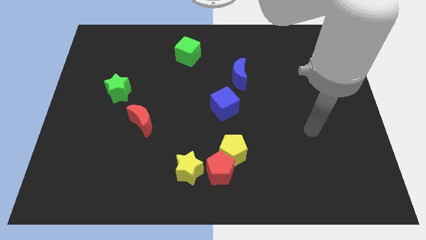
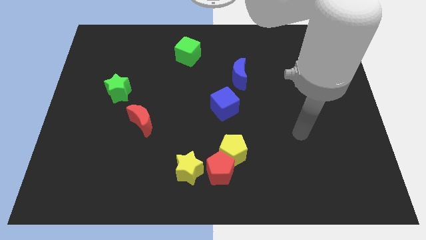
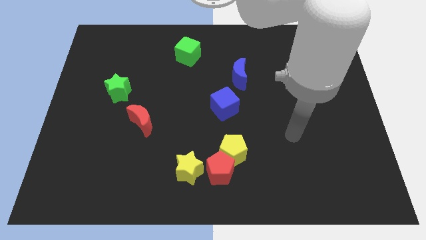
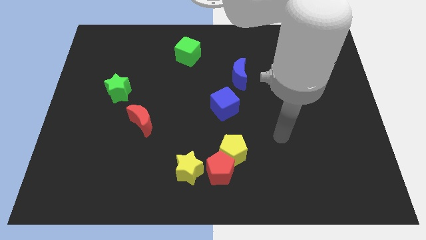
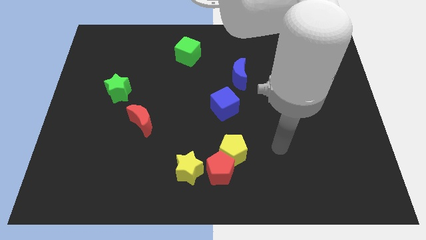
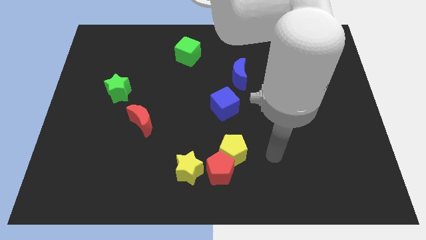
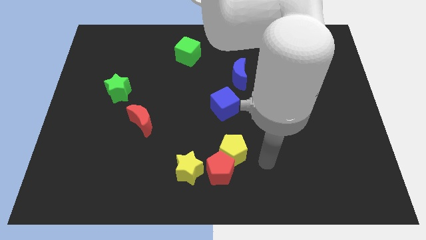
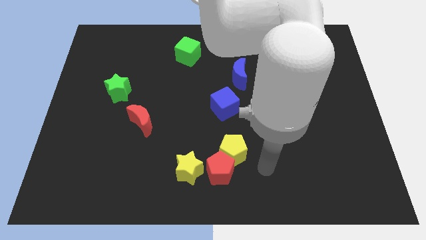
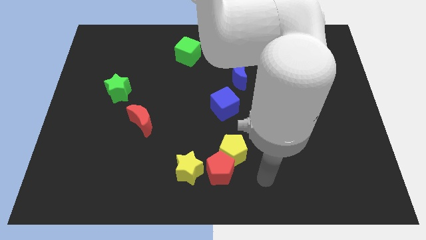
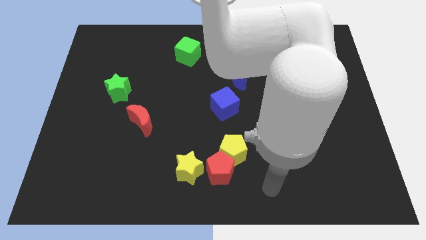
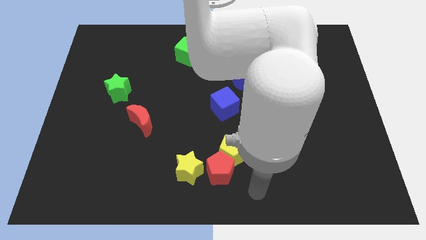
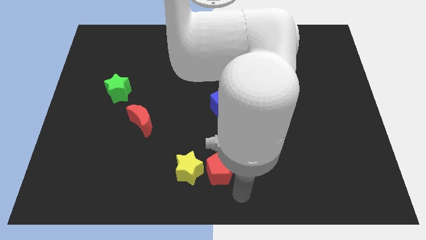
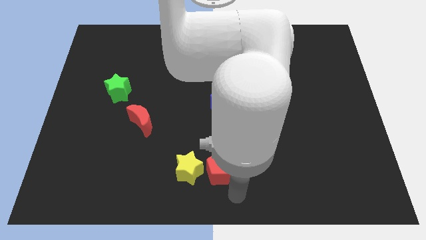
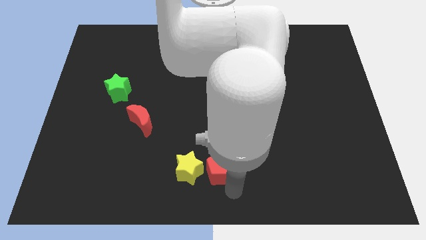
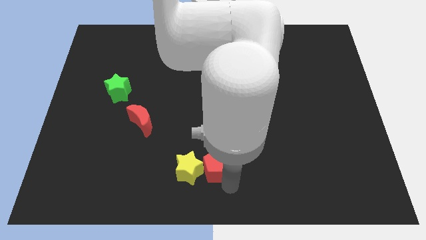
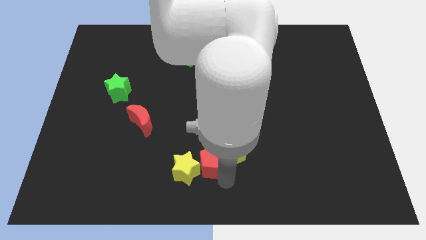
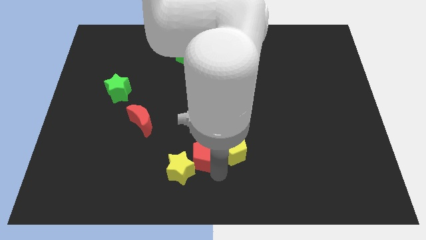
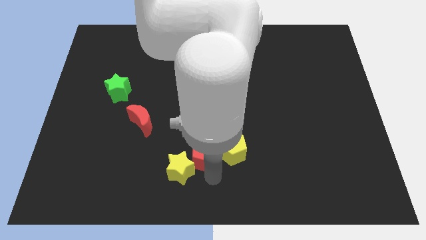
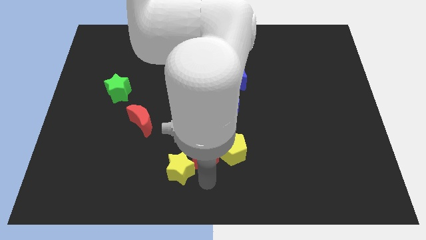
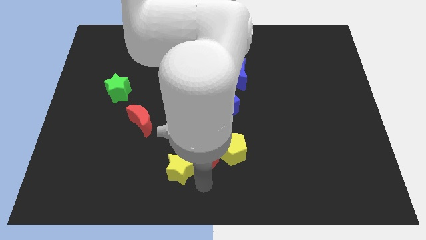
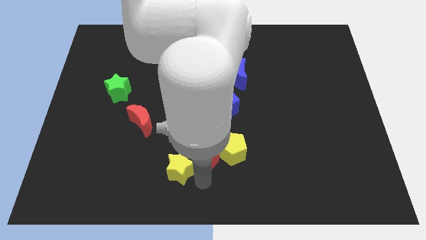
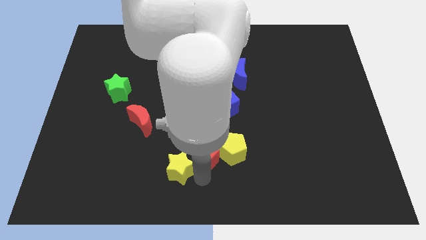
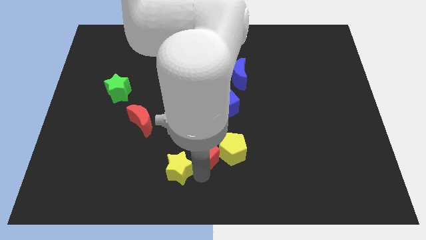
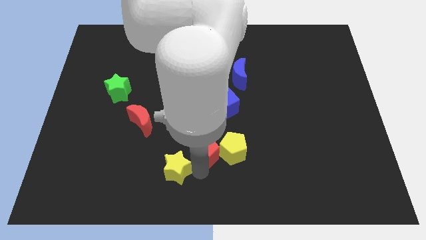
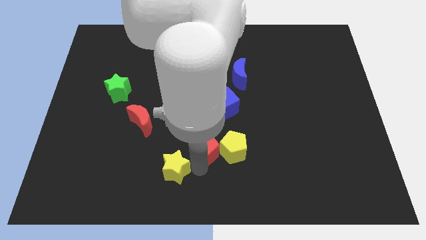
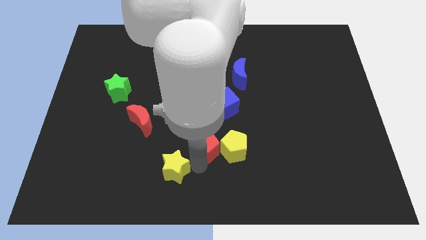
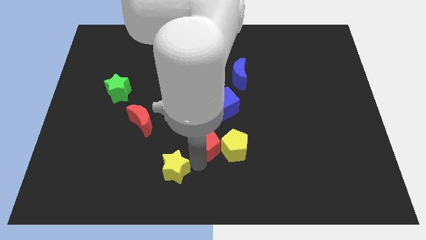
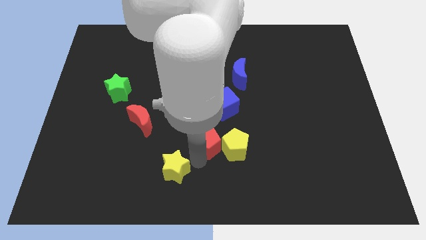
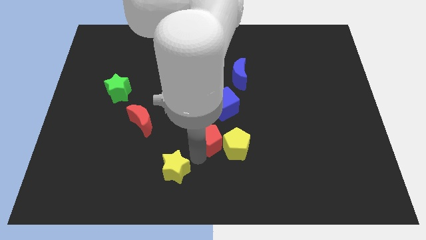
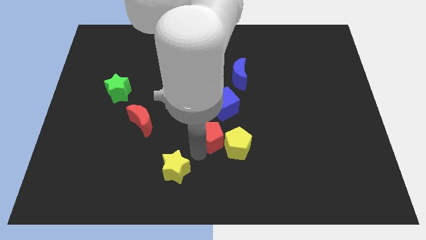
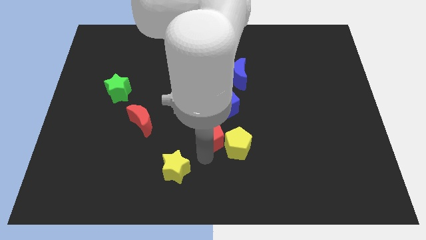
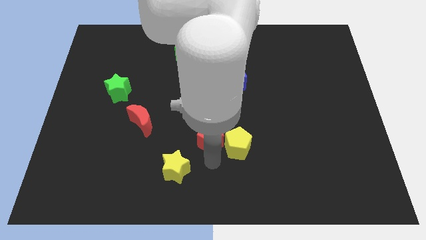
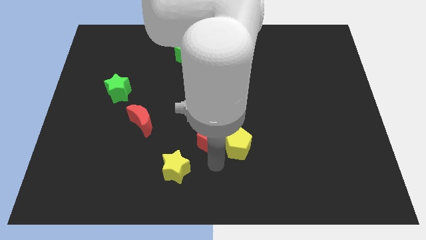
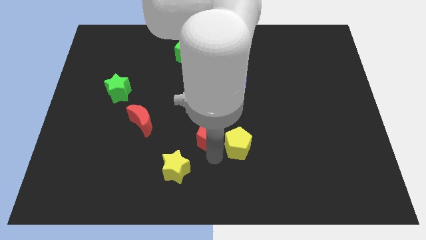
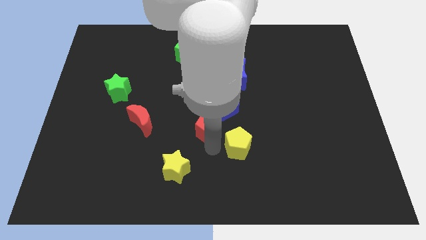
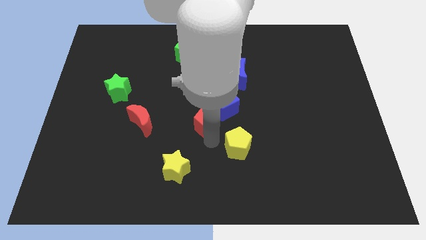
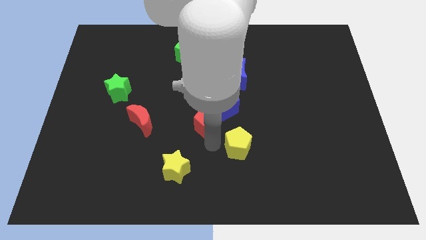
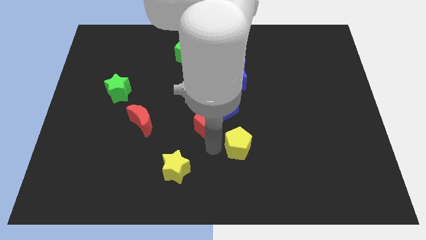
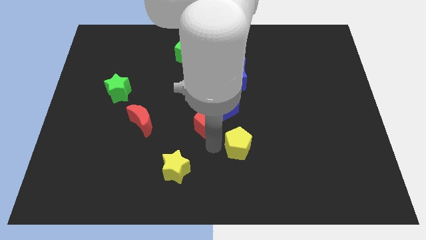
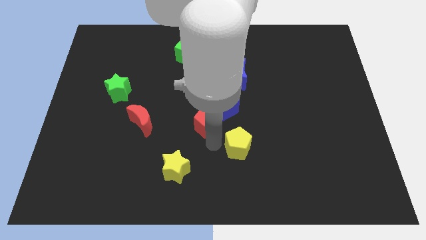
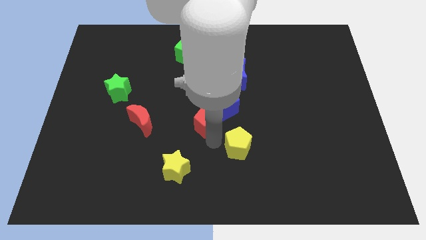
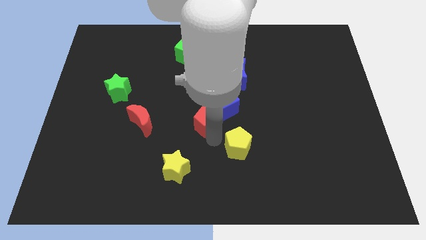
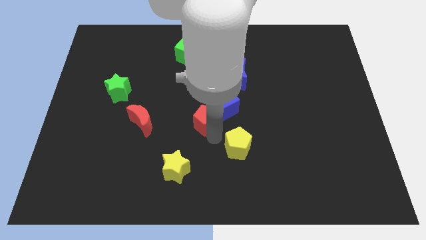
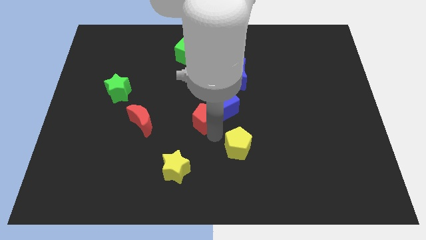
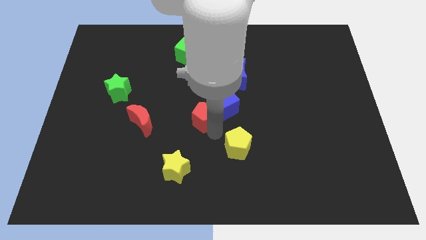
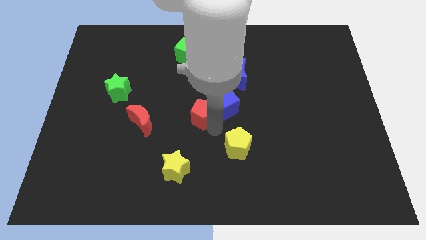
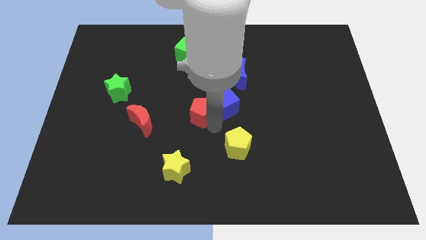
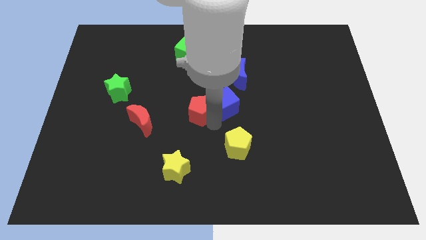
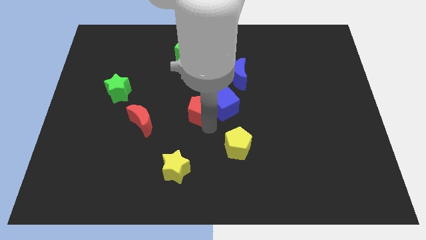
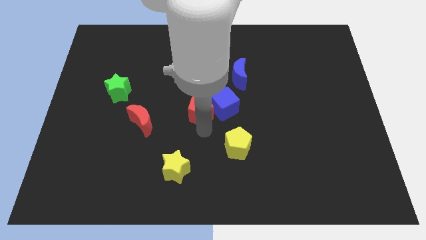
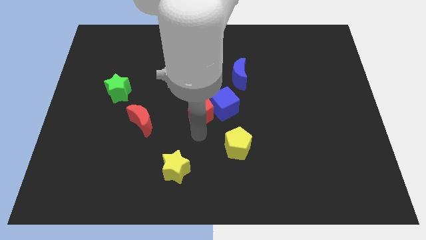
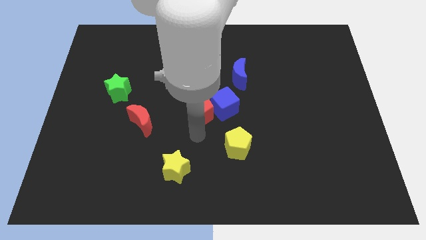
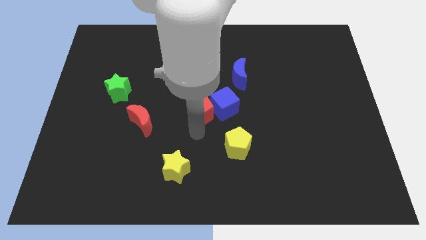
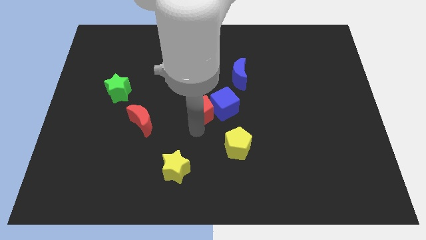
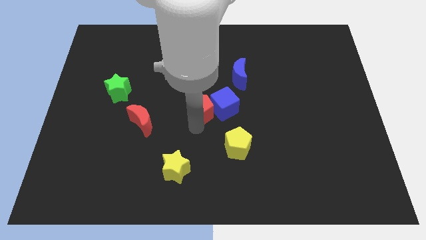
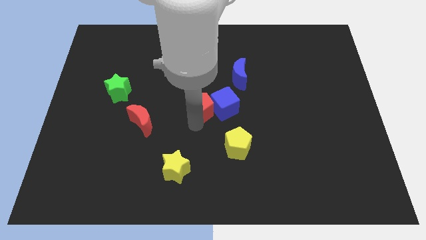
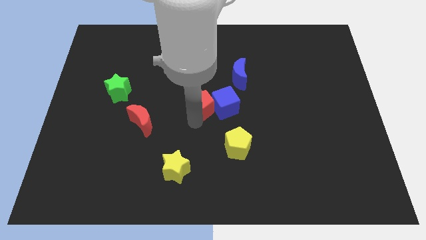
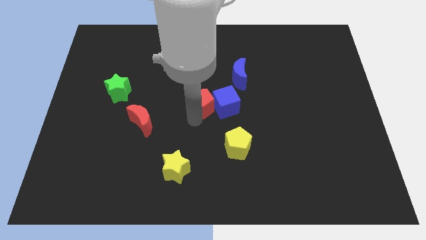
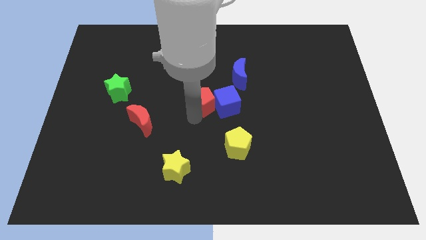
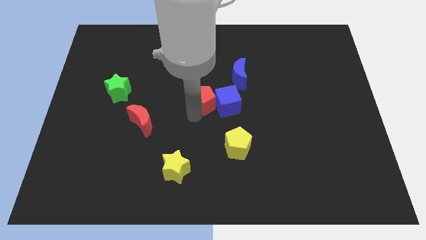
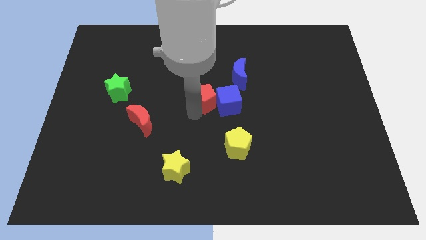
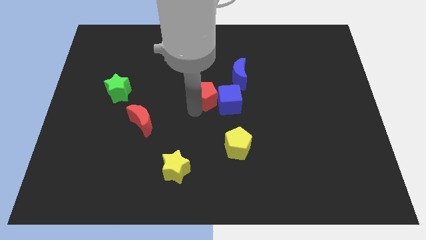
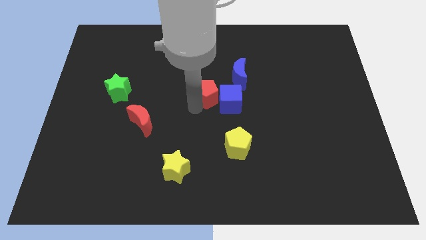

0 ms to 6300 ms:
move the red pentagon upwards

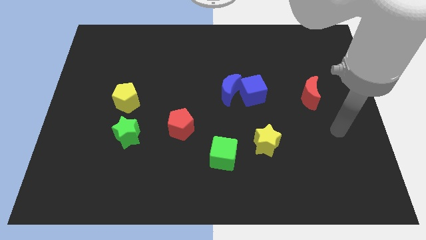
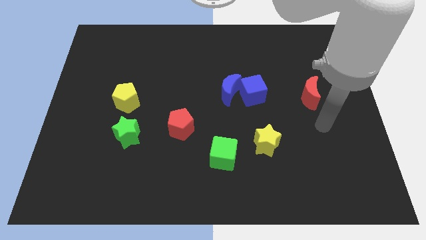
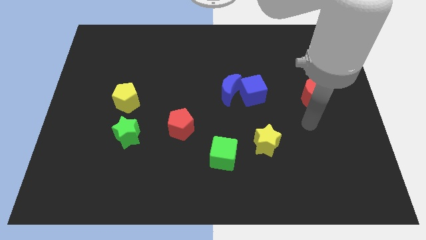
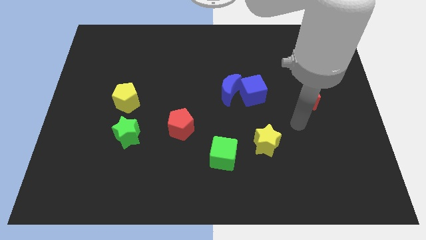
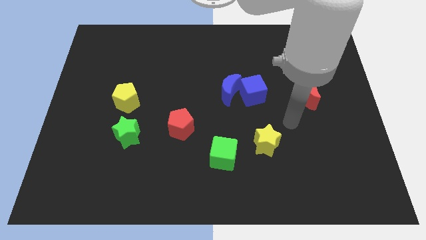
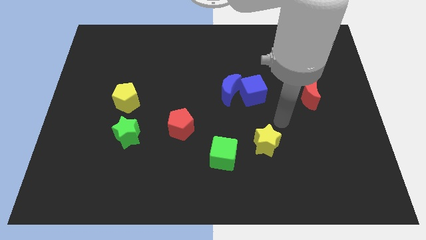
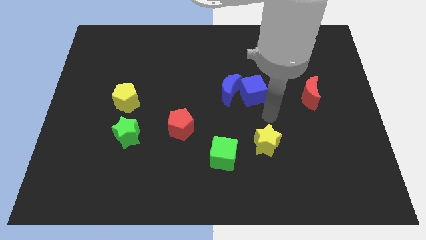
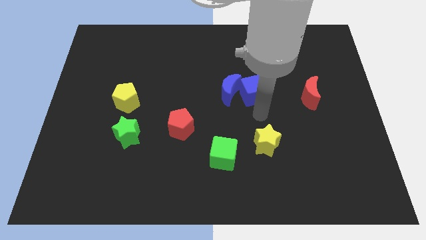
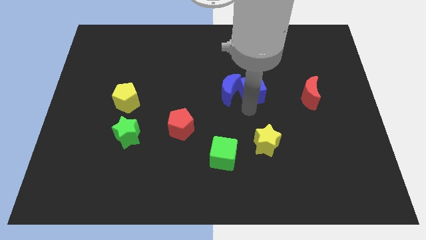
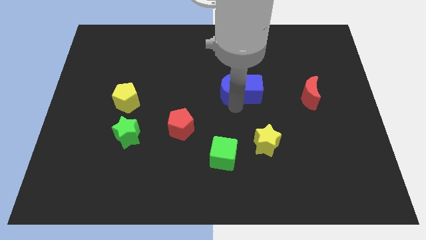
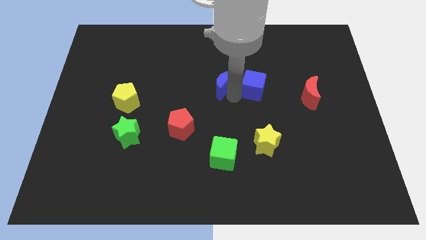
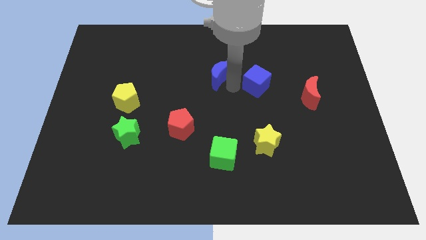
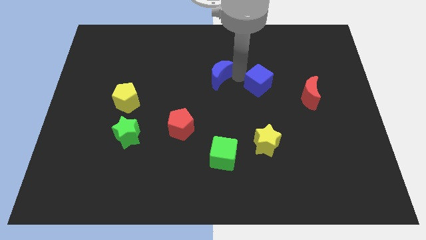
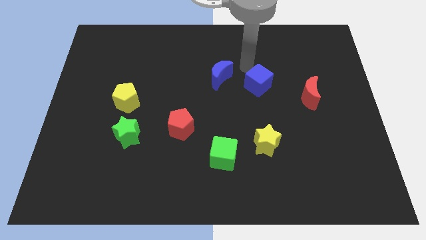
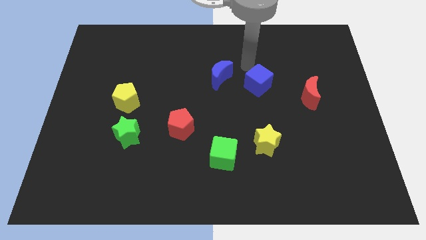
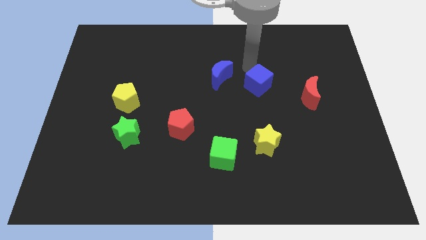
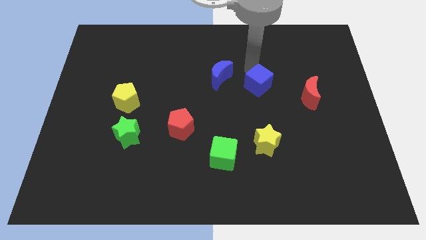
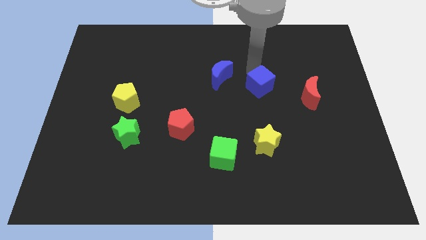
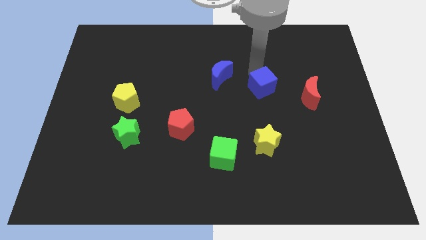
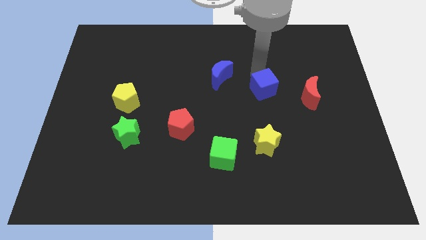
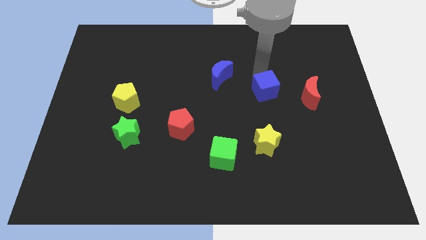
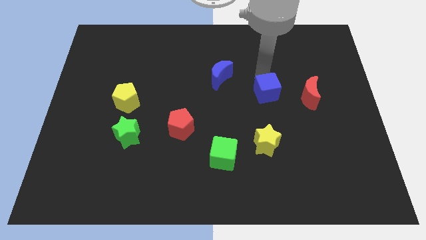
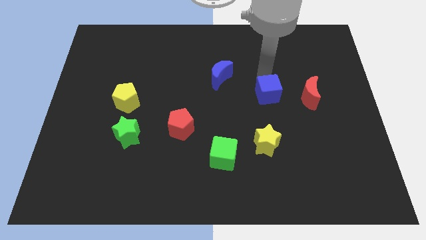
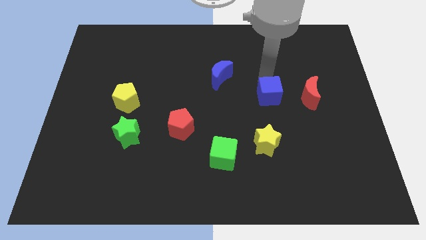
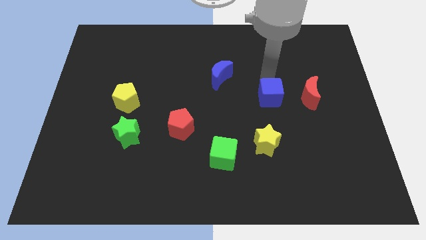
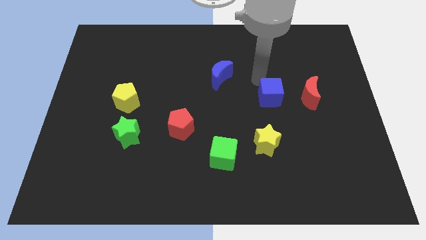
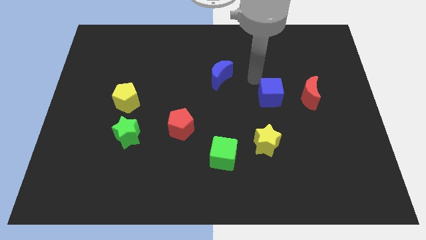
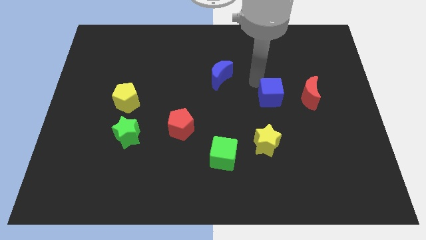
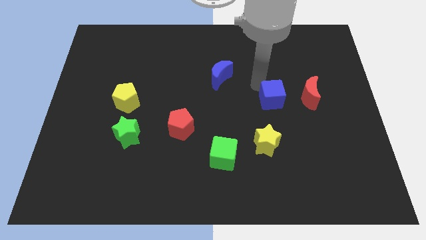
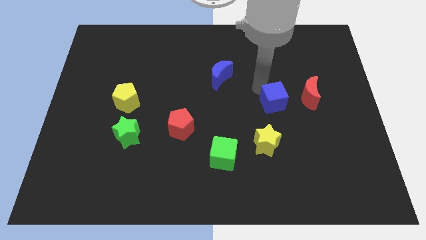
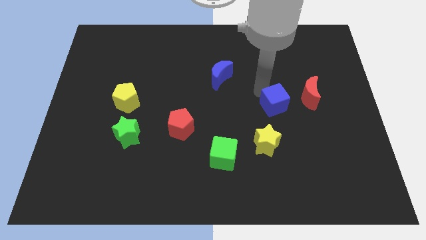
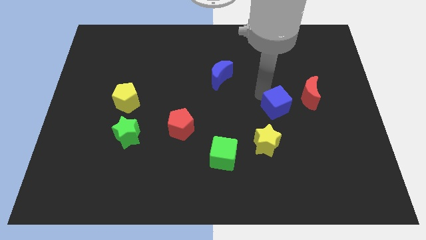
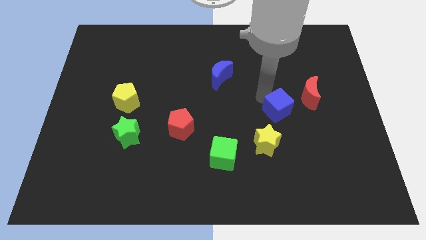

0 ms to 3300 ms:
slide the blue cube downwards and right diagonally a little bit
